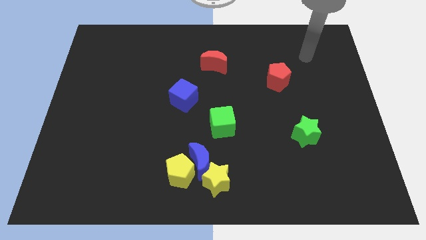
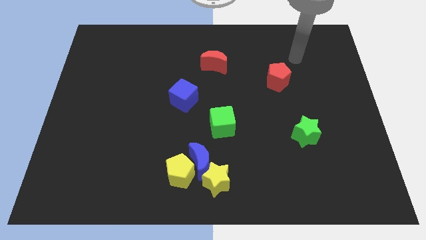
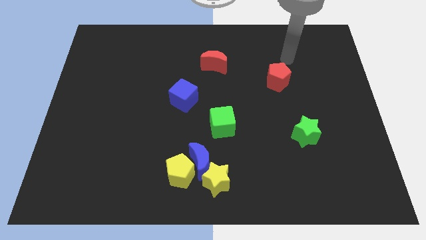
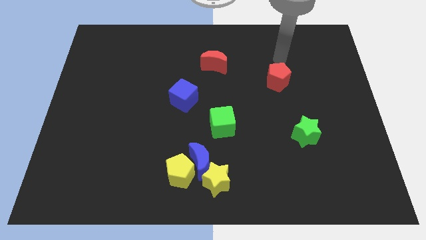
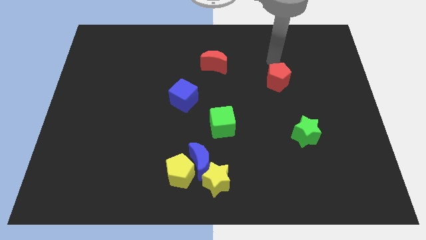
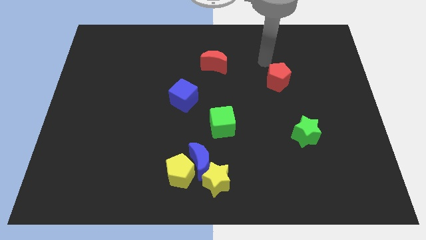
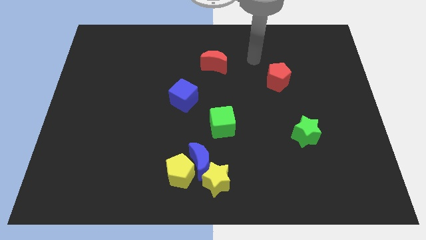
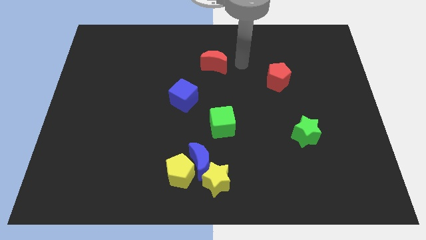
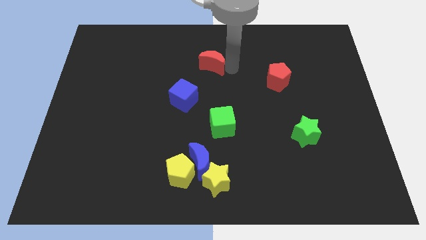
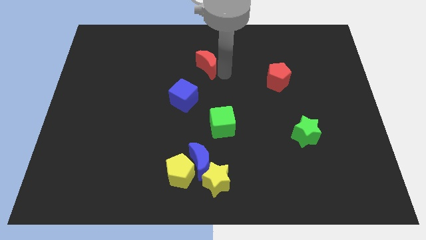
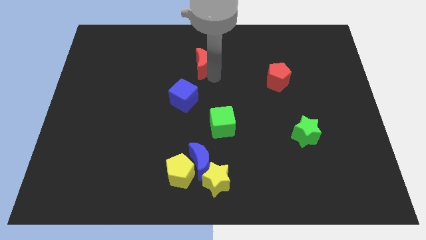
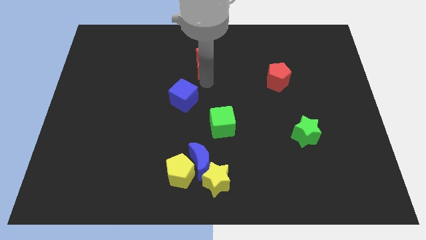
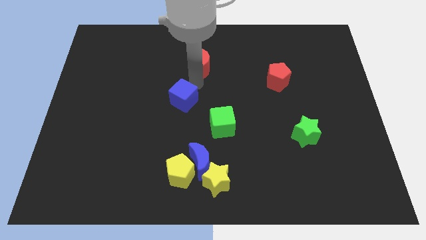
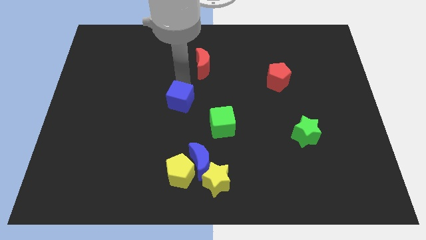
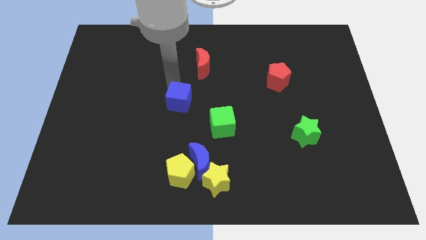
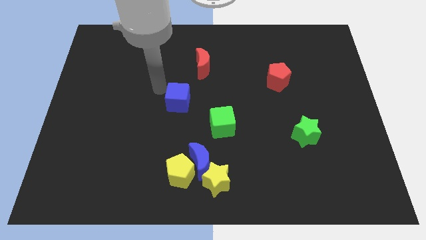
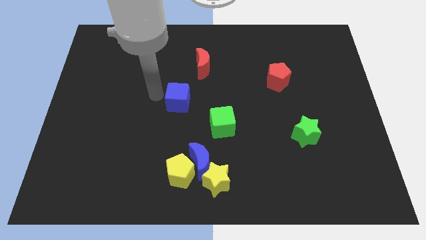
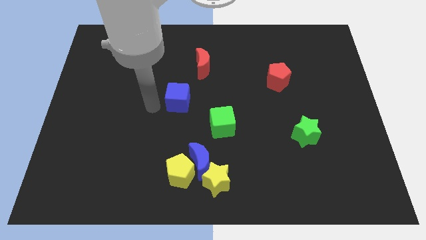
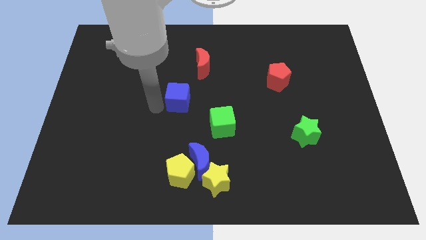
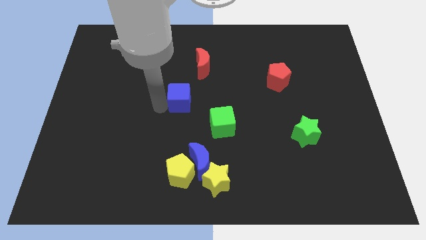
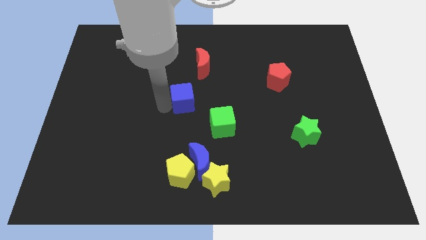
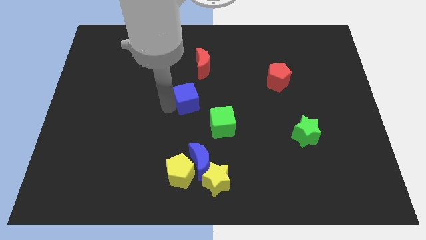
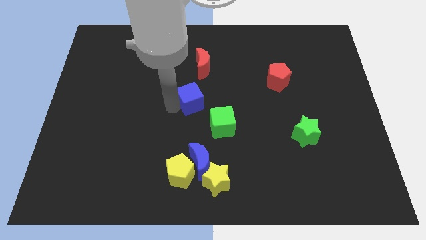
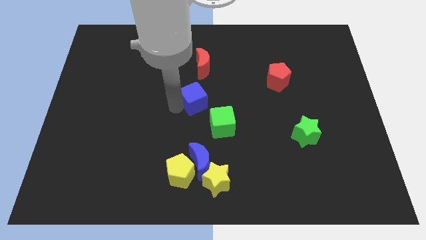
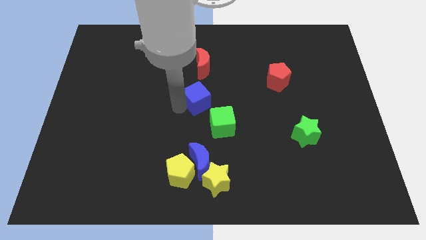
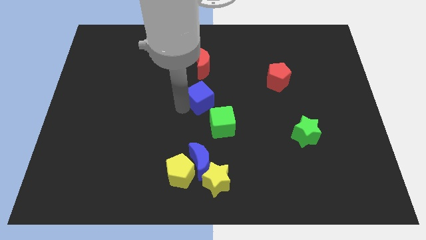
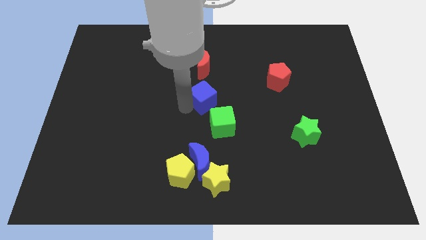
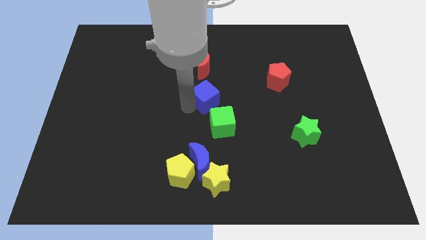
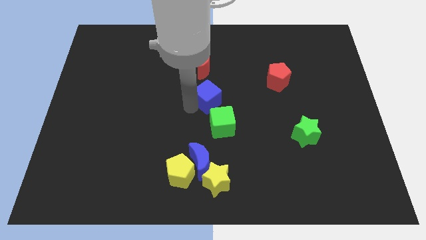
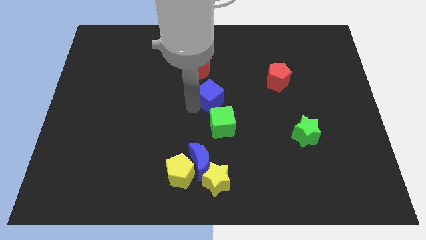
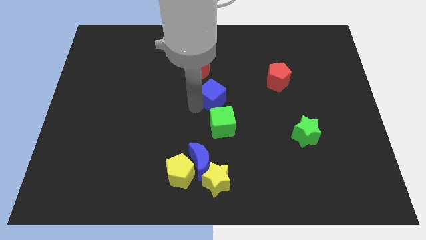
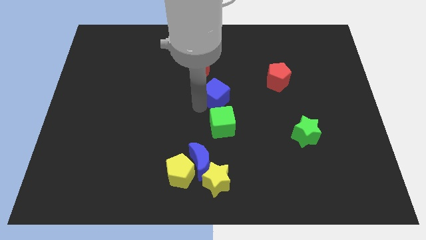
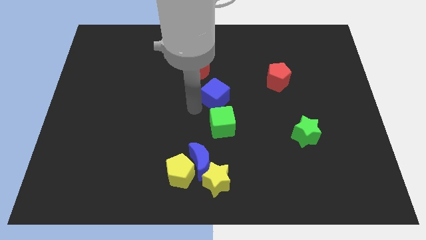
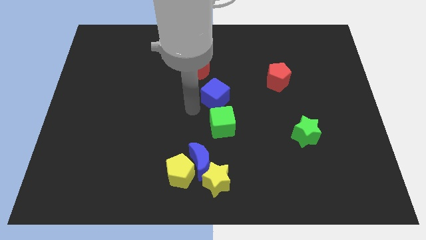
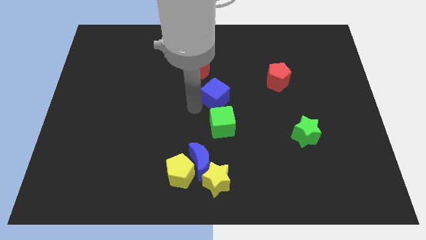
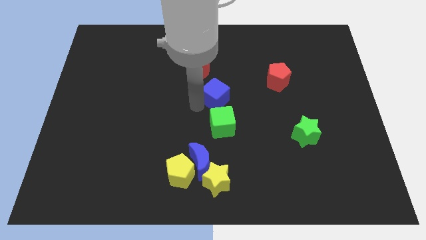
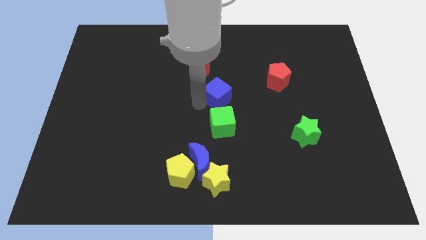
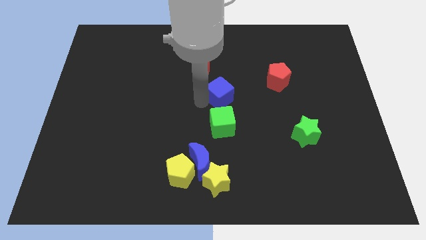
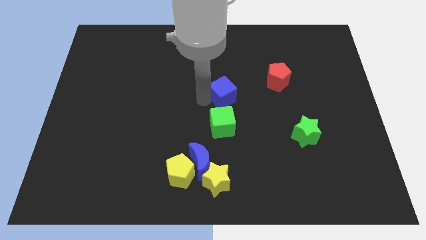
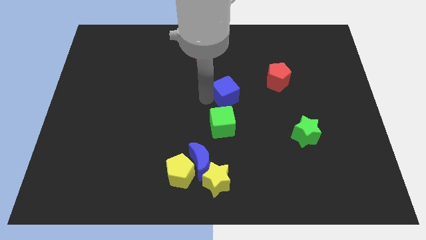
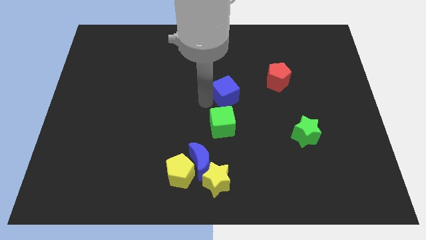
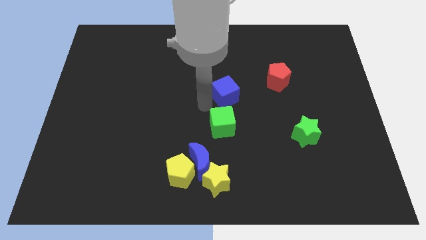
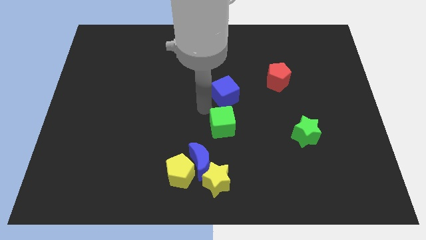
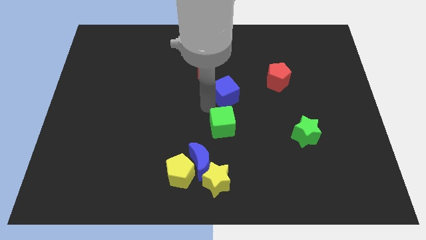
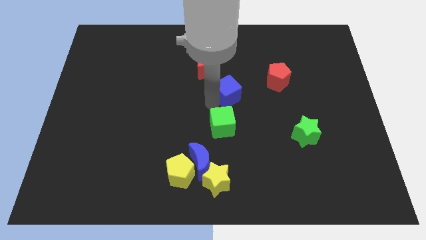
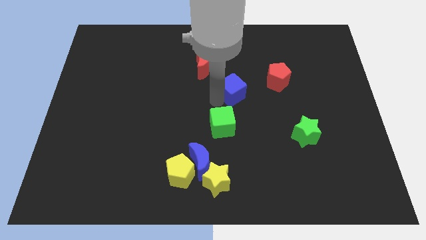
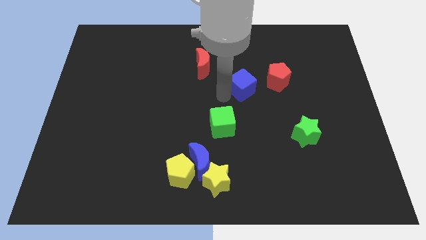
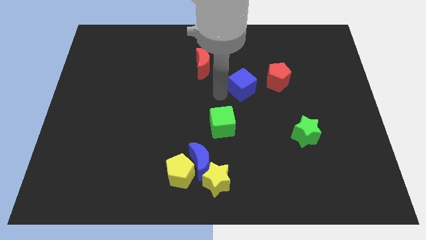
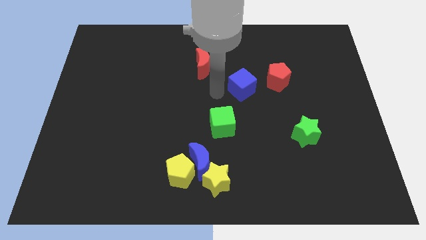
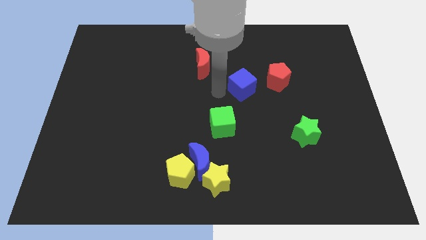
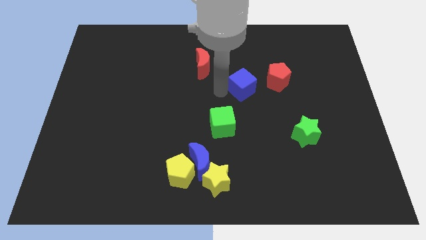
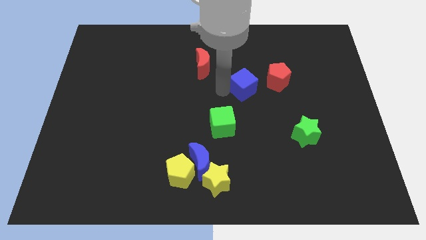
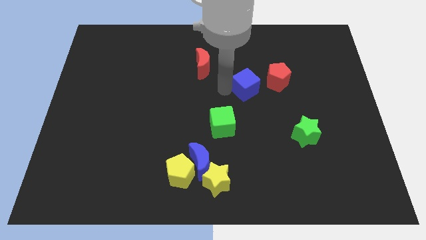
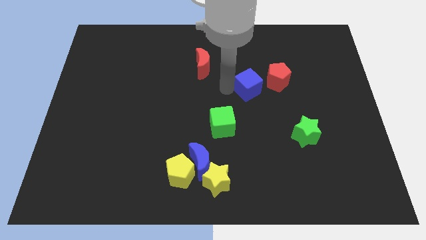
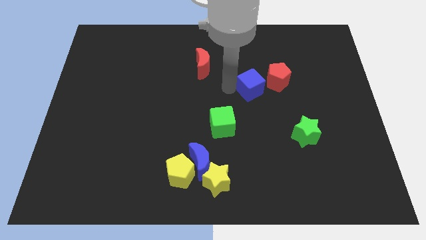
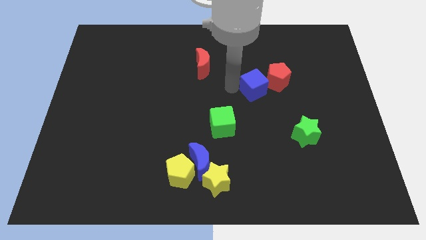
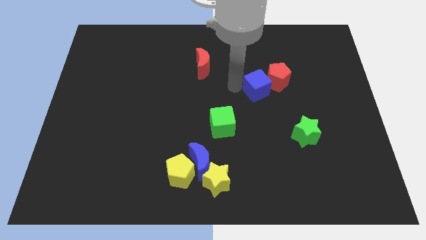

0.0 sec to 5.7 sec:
slide the blue cube close to the red pentagon

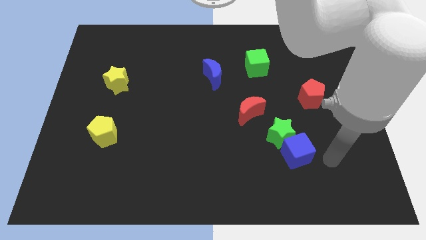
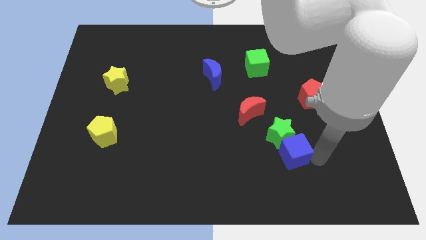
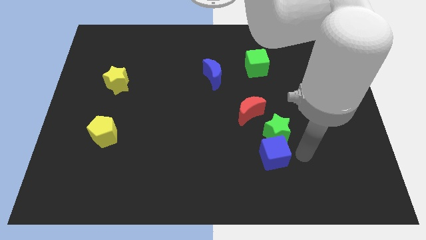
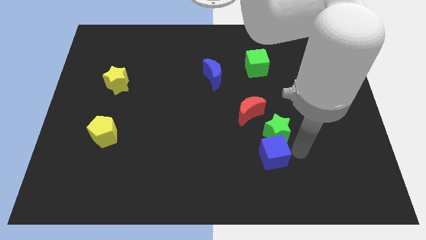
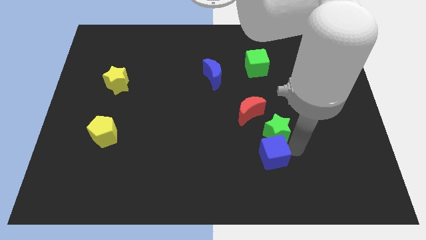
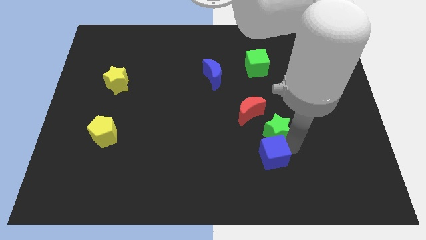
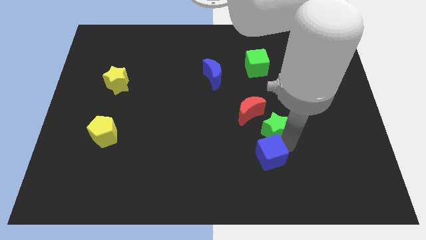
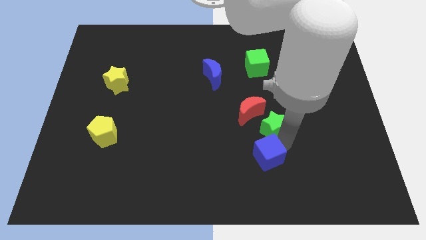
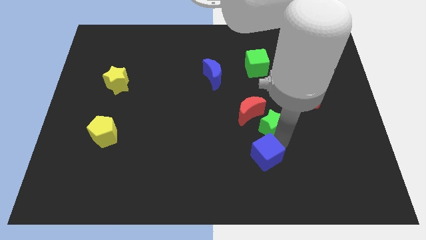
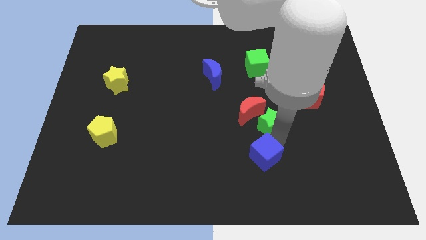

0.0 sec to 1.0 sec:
move the green star to the red moon
